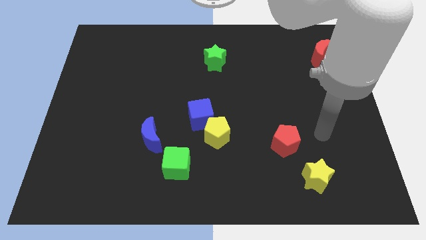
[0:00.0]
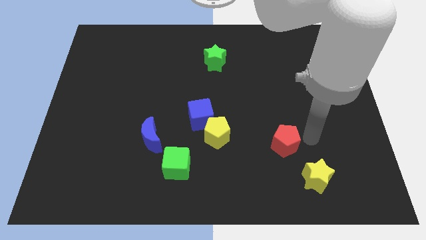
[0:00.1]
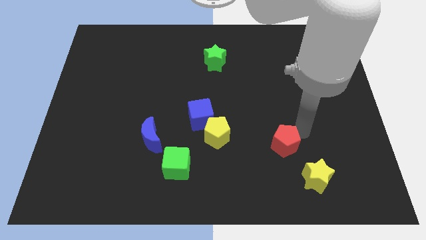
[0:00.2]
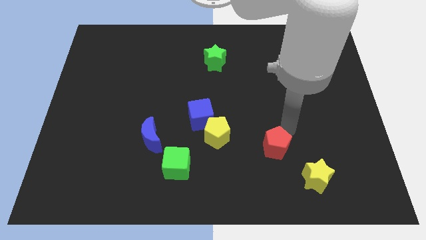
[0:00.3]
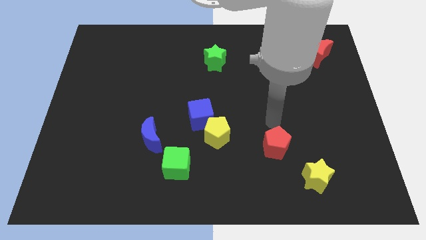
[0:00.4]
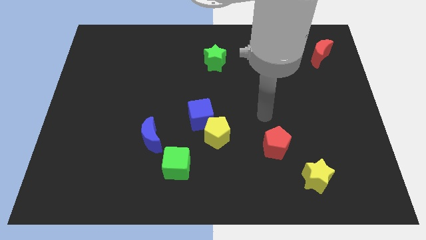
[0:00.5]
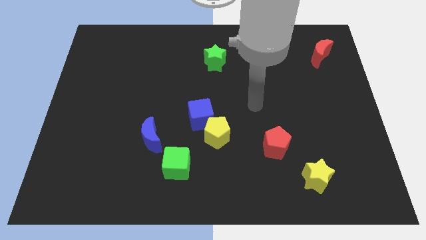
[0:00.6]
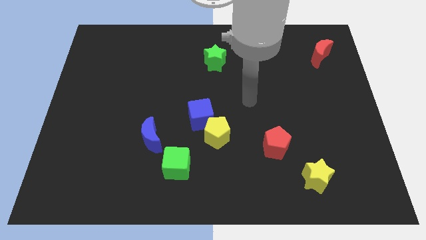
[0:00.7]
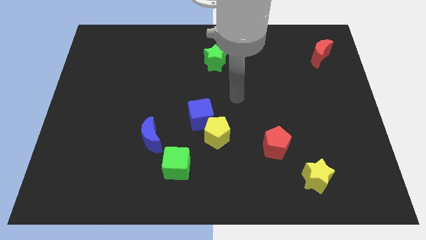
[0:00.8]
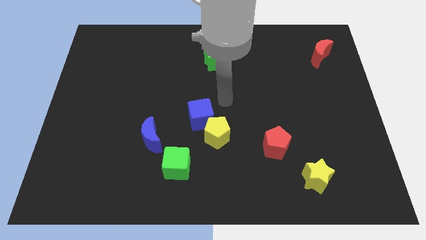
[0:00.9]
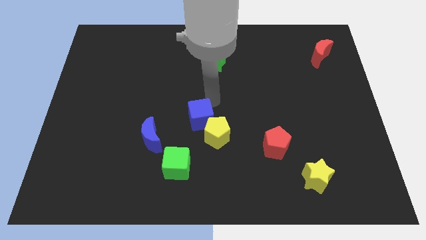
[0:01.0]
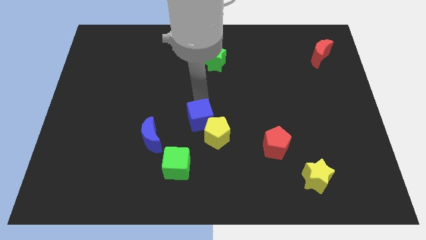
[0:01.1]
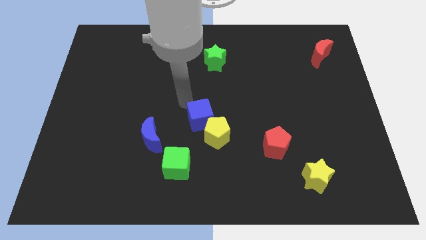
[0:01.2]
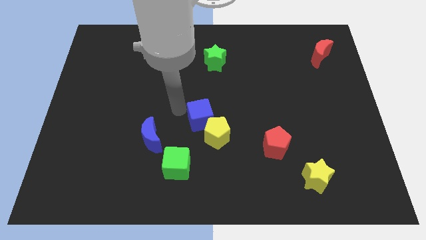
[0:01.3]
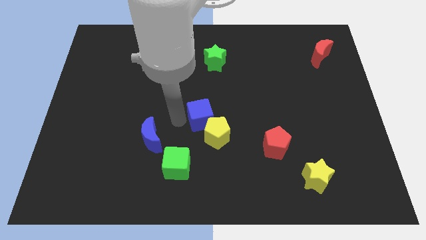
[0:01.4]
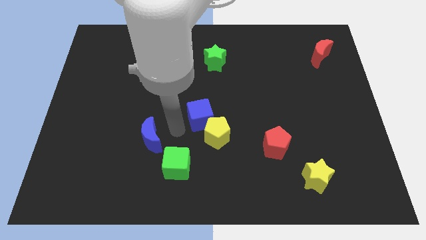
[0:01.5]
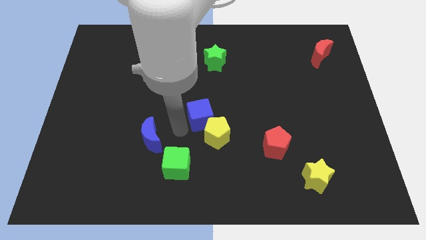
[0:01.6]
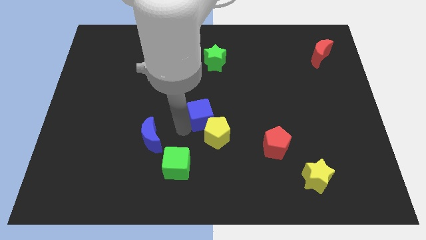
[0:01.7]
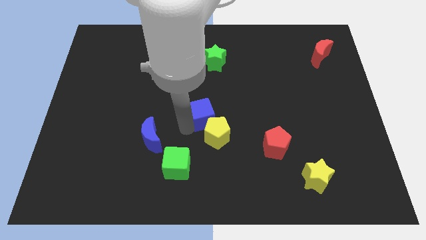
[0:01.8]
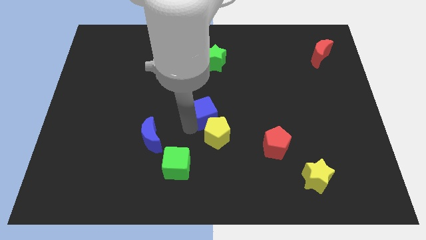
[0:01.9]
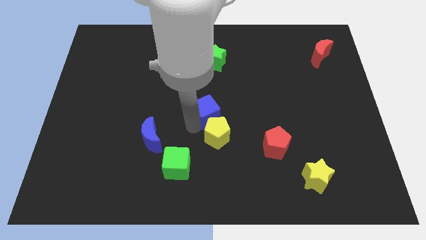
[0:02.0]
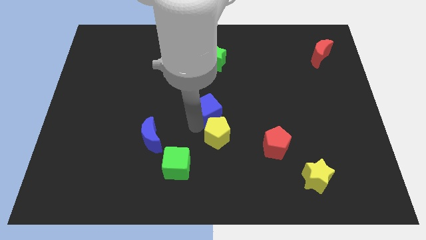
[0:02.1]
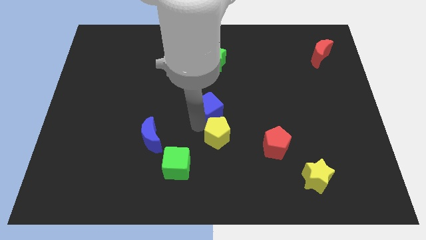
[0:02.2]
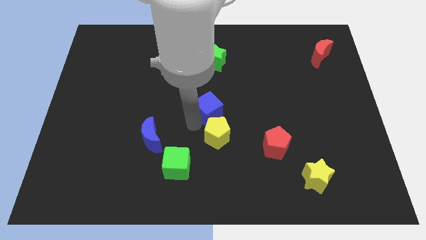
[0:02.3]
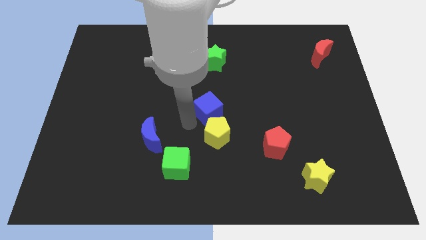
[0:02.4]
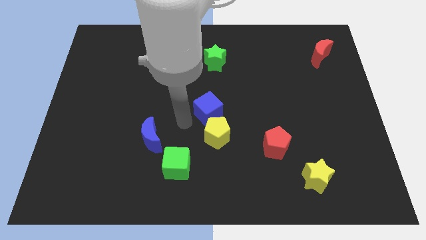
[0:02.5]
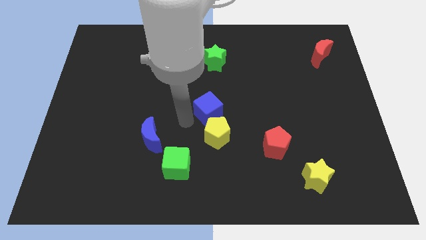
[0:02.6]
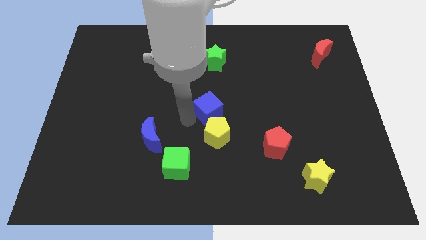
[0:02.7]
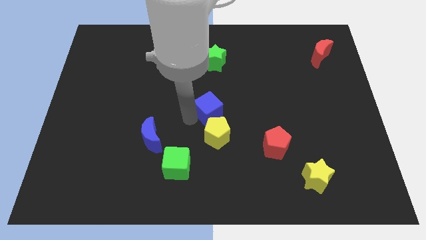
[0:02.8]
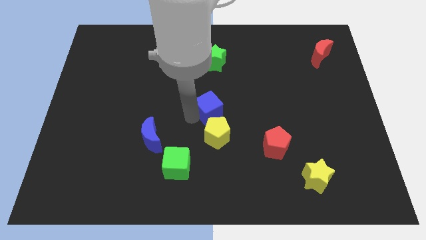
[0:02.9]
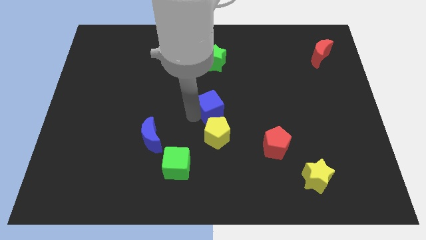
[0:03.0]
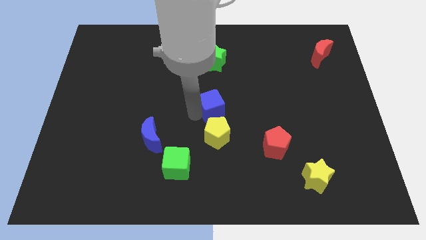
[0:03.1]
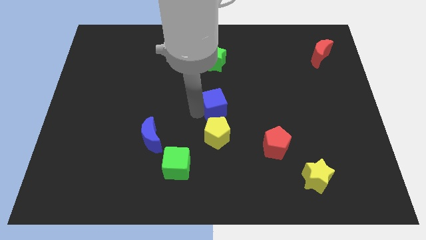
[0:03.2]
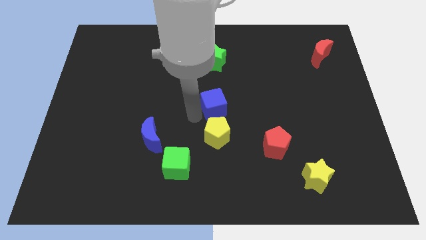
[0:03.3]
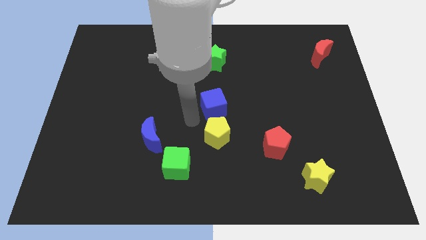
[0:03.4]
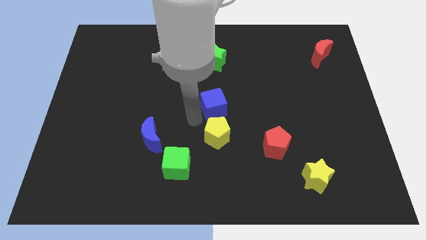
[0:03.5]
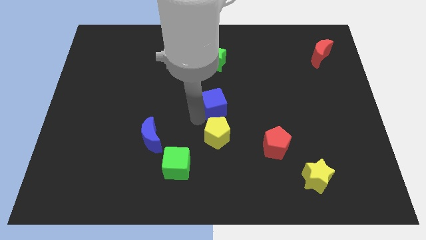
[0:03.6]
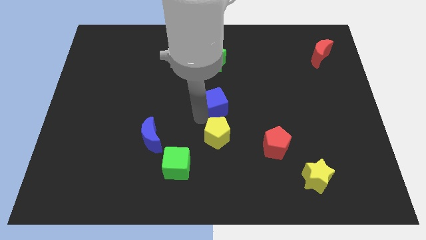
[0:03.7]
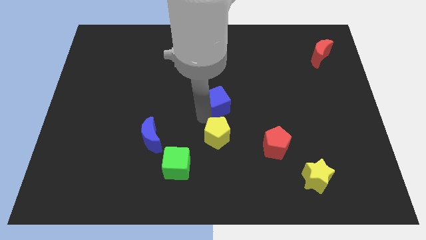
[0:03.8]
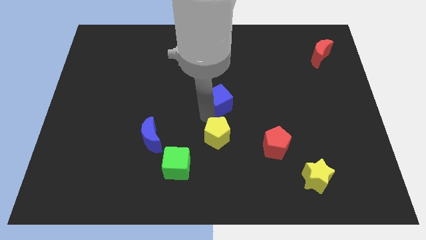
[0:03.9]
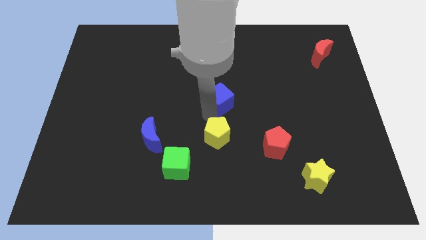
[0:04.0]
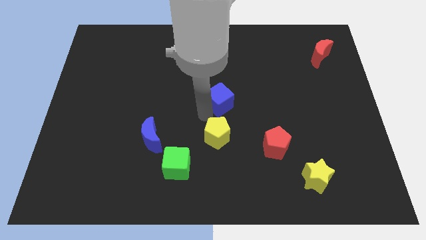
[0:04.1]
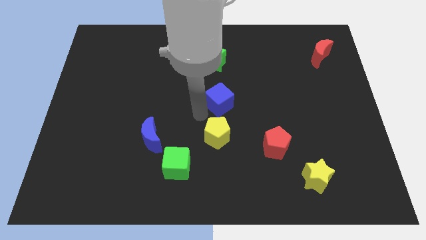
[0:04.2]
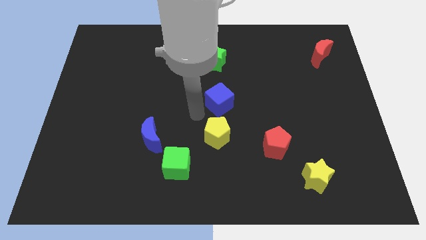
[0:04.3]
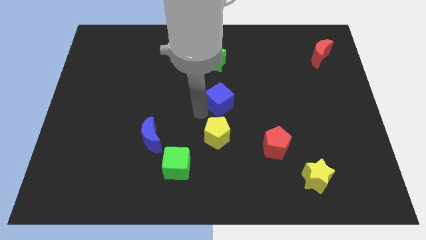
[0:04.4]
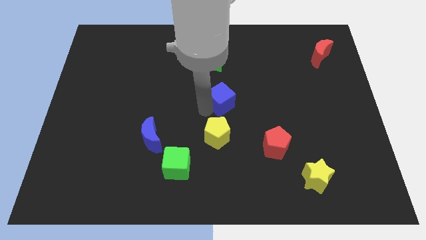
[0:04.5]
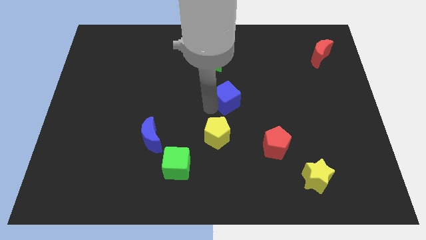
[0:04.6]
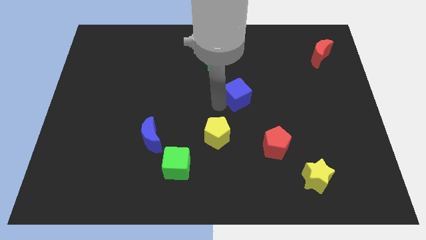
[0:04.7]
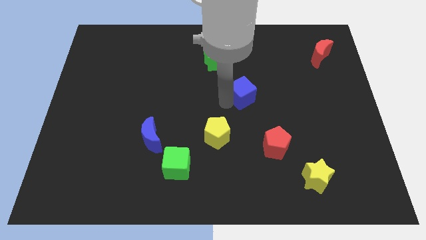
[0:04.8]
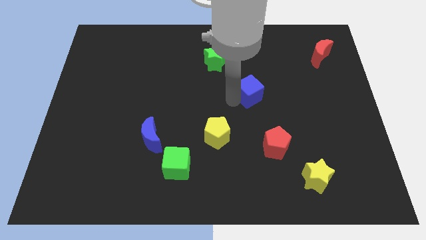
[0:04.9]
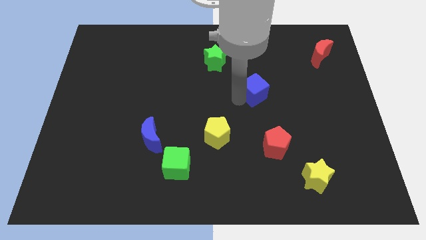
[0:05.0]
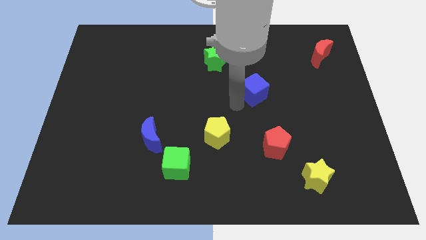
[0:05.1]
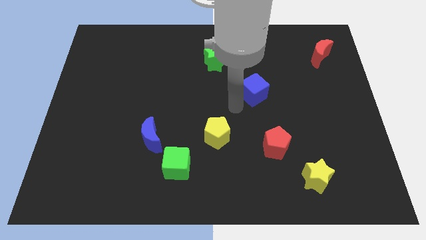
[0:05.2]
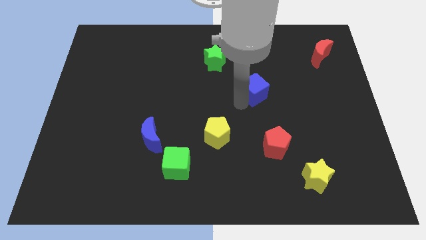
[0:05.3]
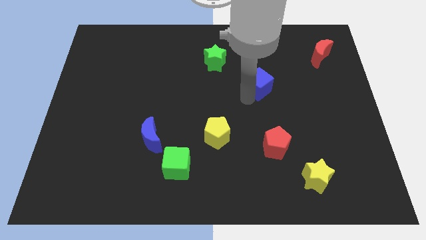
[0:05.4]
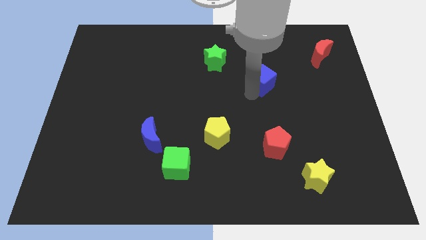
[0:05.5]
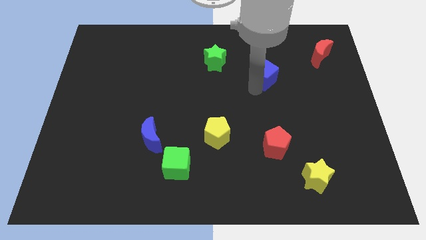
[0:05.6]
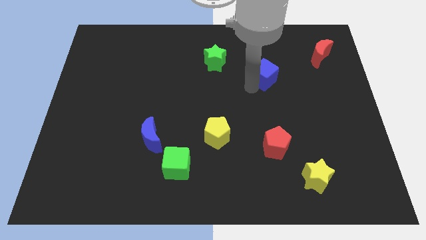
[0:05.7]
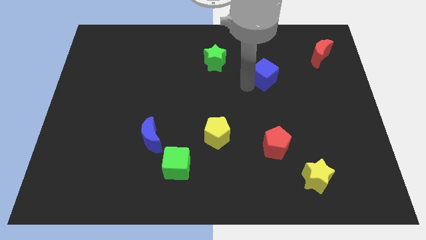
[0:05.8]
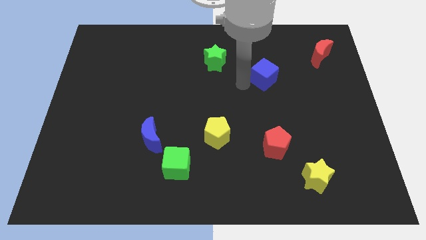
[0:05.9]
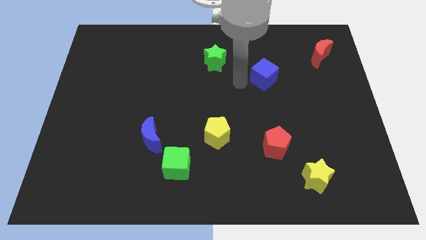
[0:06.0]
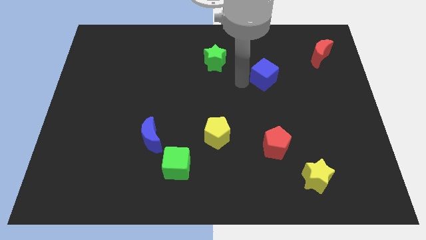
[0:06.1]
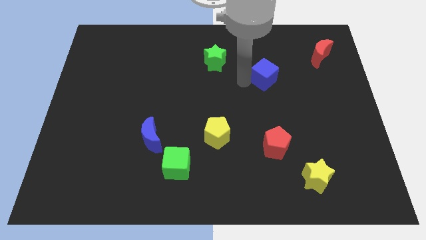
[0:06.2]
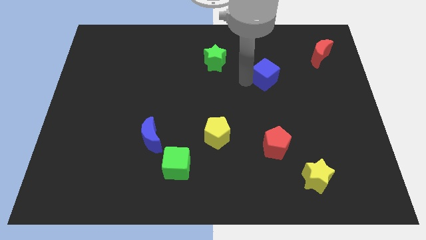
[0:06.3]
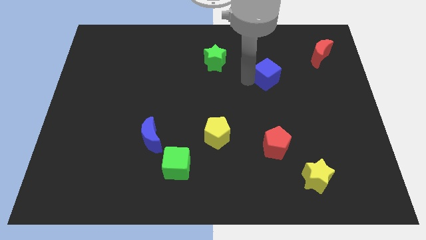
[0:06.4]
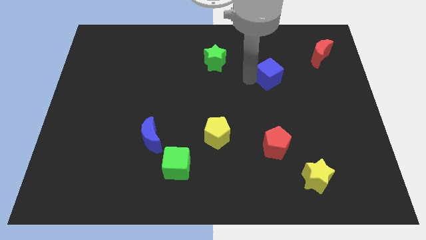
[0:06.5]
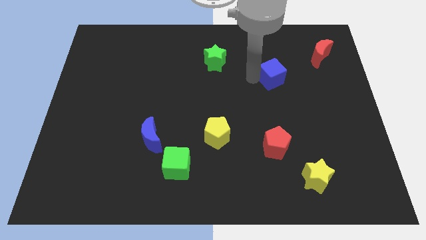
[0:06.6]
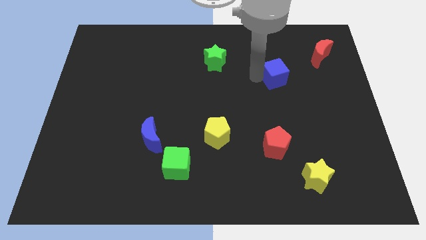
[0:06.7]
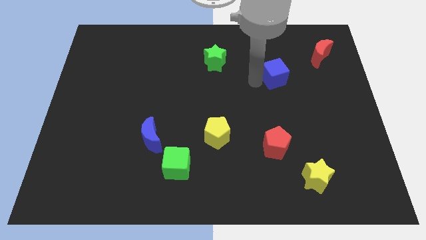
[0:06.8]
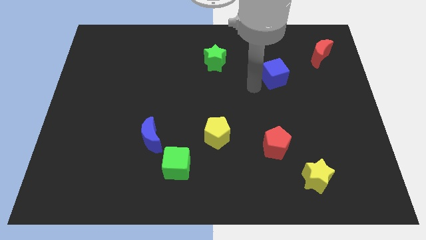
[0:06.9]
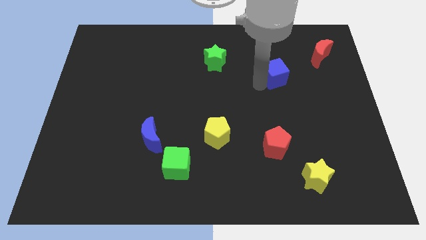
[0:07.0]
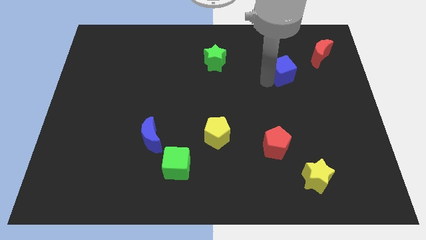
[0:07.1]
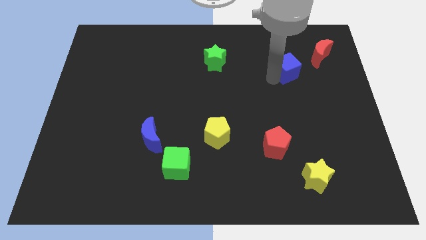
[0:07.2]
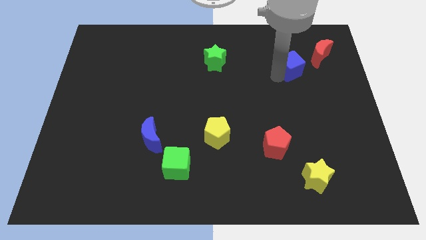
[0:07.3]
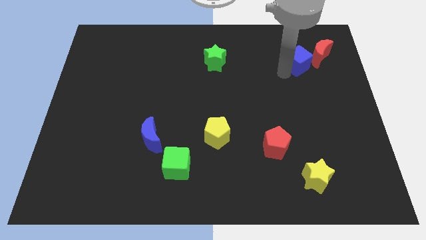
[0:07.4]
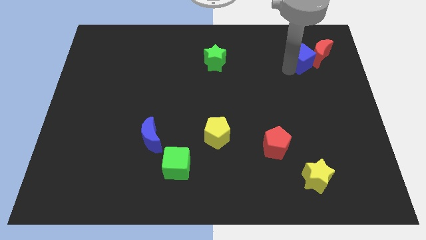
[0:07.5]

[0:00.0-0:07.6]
push the blue cube to the red moon
